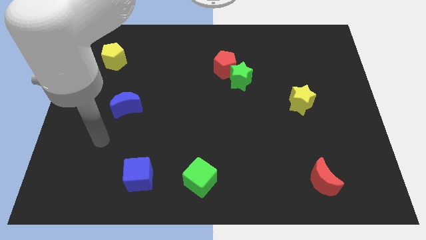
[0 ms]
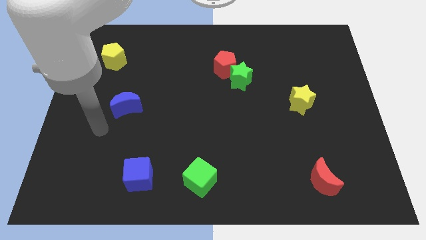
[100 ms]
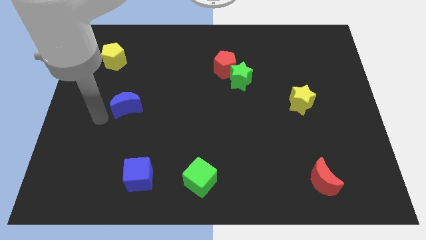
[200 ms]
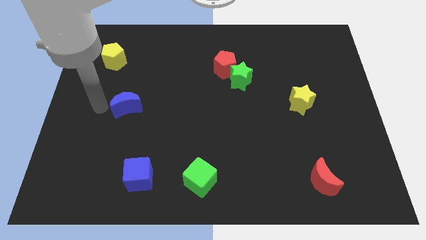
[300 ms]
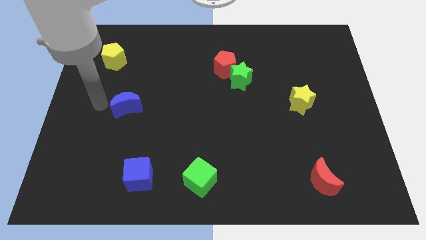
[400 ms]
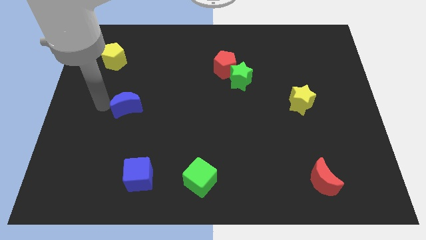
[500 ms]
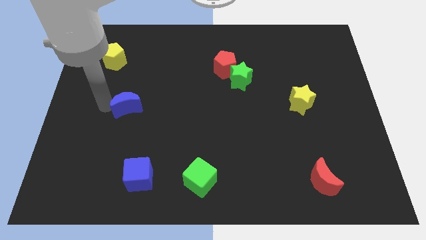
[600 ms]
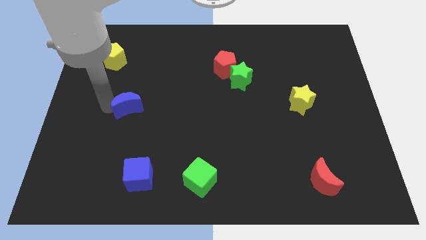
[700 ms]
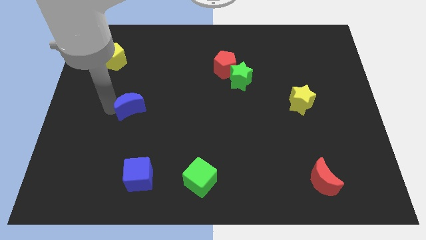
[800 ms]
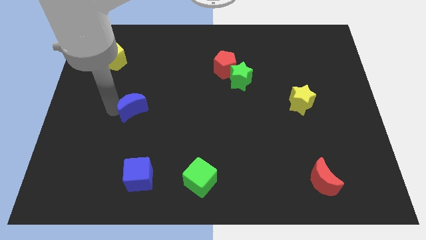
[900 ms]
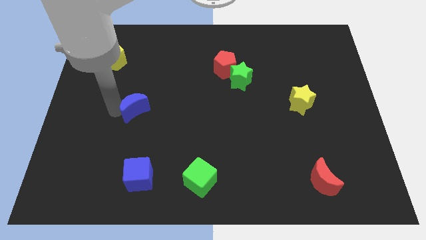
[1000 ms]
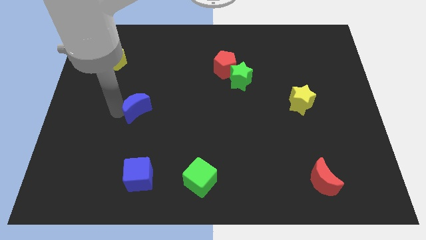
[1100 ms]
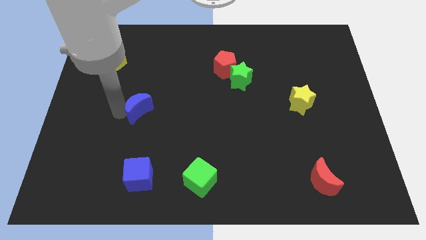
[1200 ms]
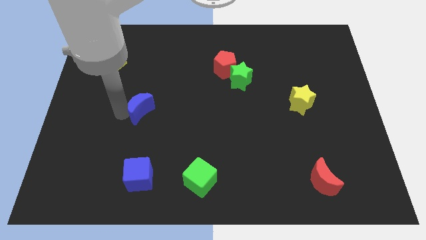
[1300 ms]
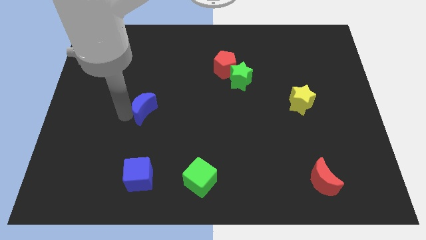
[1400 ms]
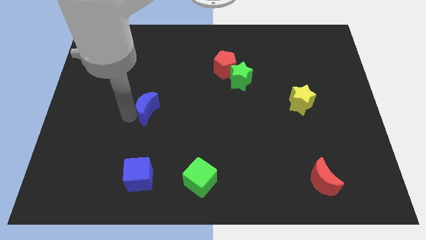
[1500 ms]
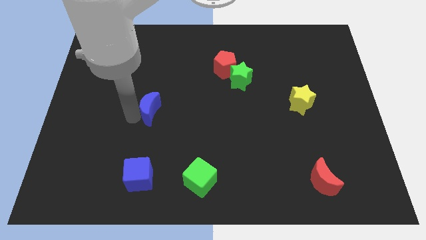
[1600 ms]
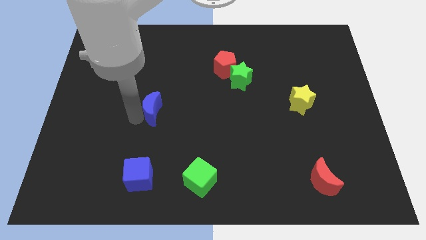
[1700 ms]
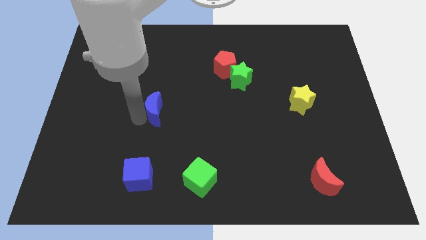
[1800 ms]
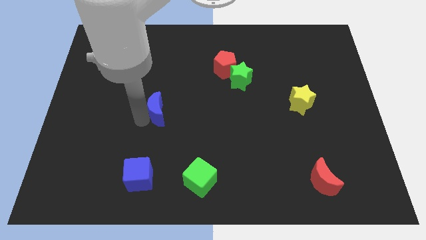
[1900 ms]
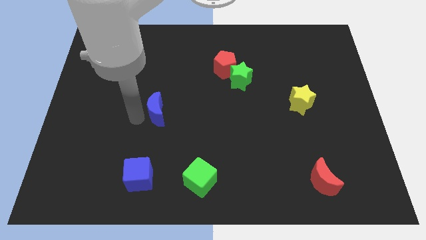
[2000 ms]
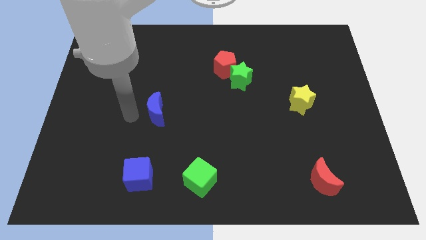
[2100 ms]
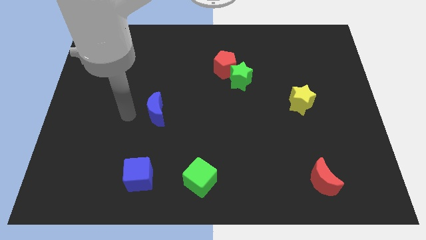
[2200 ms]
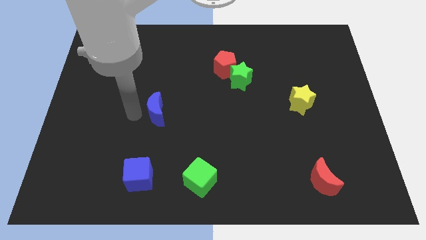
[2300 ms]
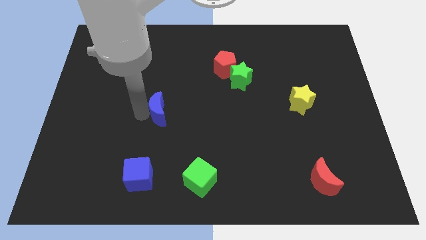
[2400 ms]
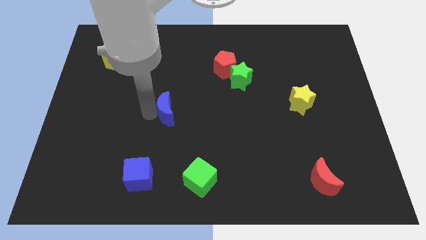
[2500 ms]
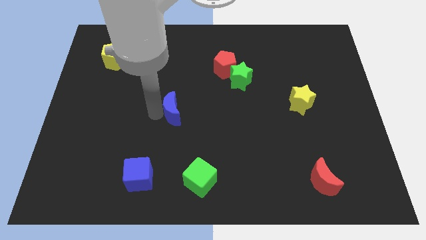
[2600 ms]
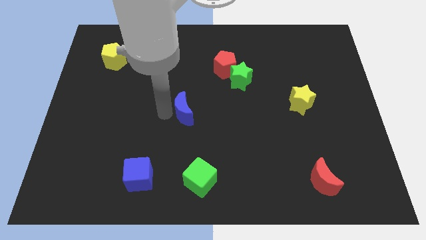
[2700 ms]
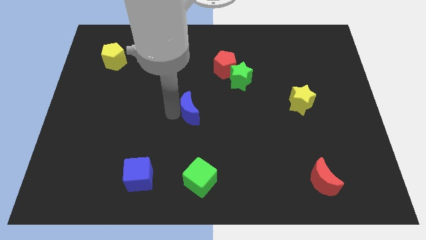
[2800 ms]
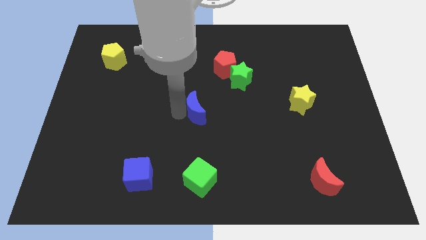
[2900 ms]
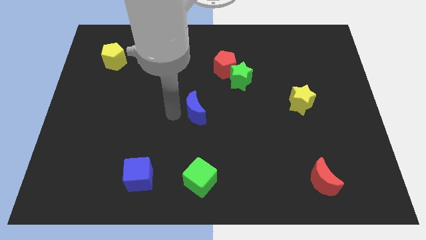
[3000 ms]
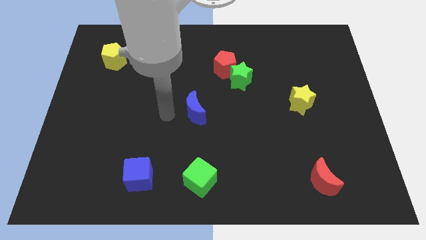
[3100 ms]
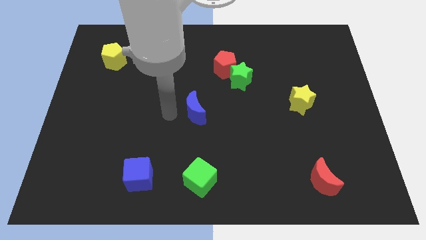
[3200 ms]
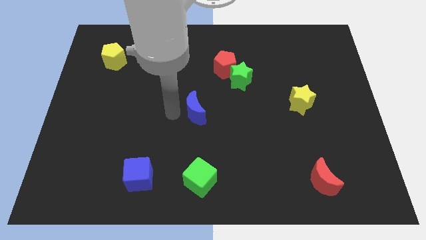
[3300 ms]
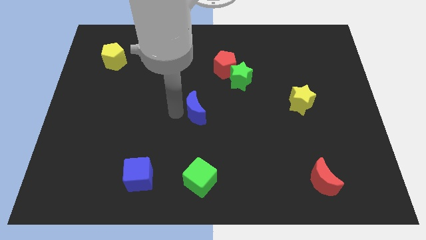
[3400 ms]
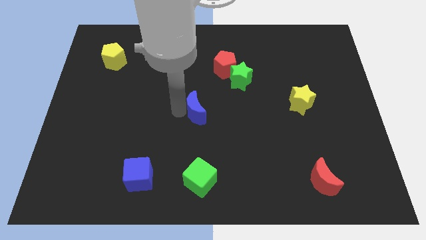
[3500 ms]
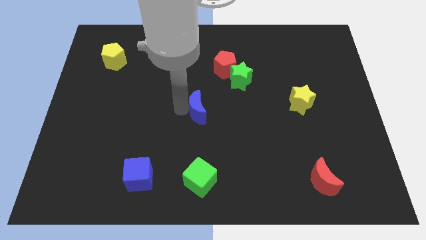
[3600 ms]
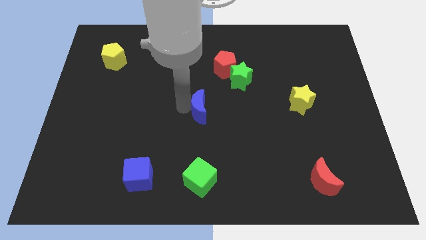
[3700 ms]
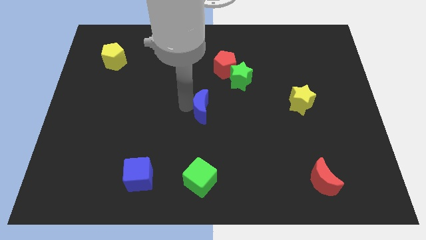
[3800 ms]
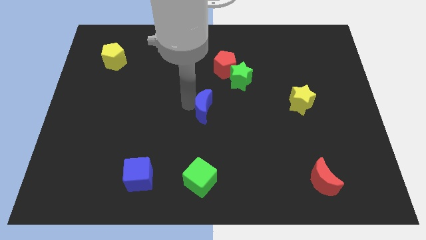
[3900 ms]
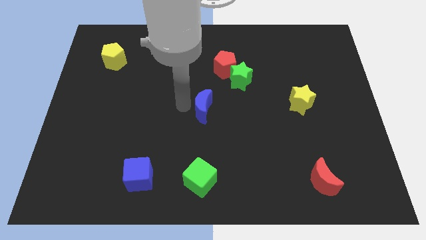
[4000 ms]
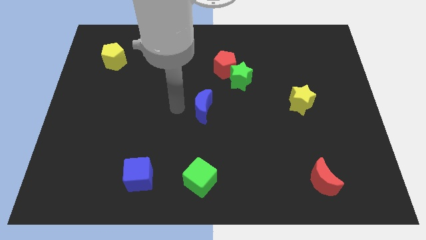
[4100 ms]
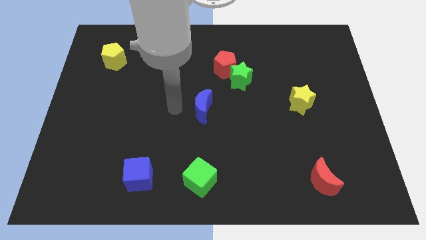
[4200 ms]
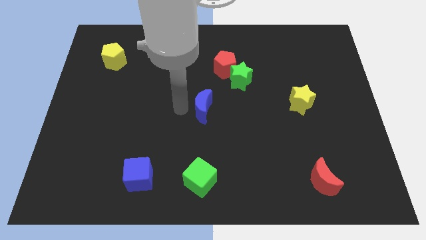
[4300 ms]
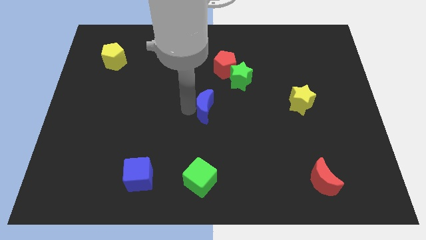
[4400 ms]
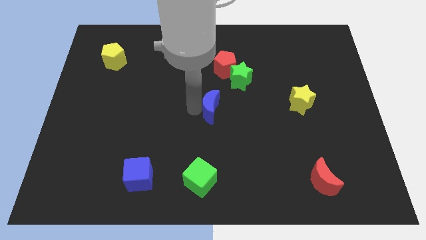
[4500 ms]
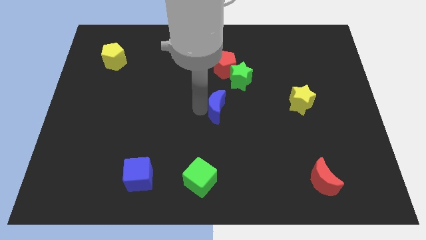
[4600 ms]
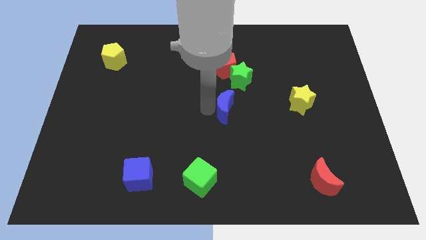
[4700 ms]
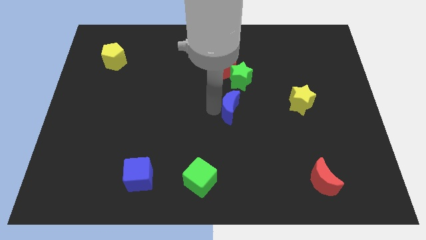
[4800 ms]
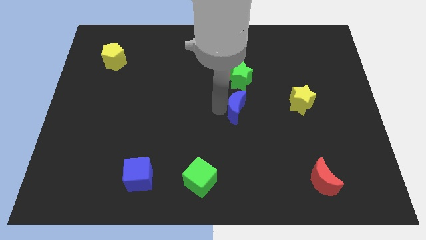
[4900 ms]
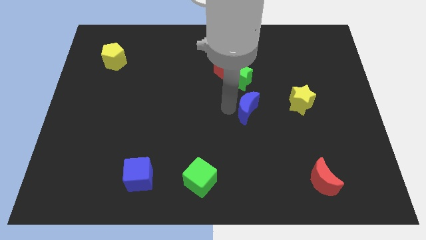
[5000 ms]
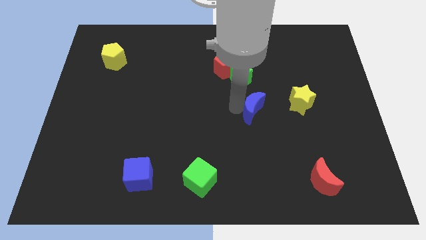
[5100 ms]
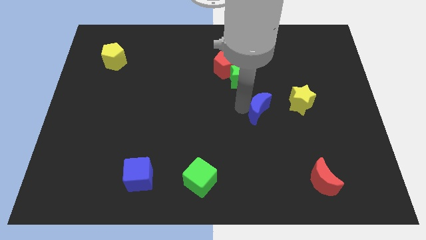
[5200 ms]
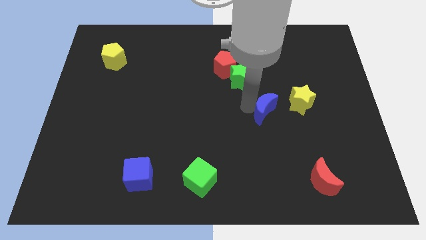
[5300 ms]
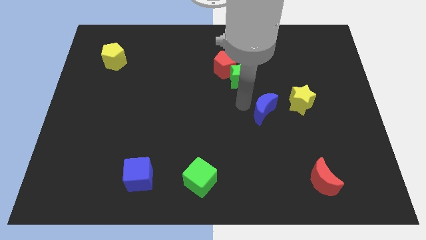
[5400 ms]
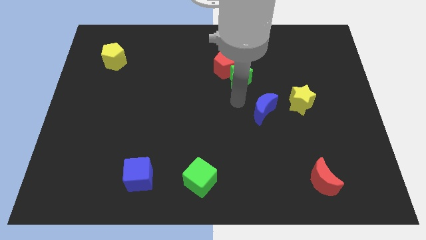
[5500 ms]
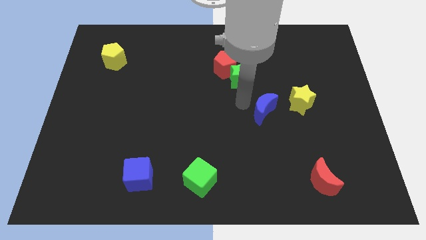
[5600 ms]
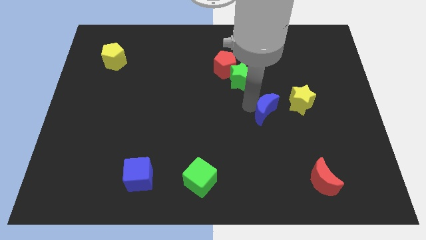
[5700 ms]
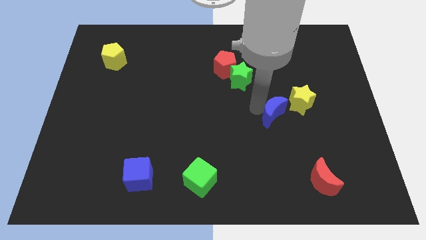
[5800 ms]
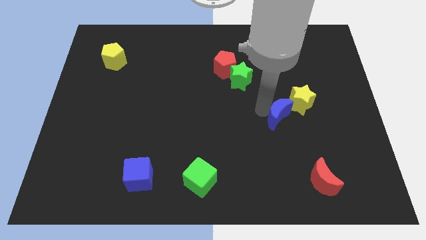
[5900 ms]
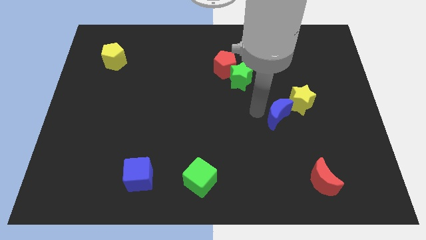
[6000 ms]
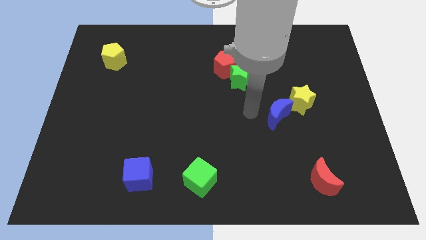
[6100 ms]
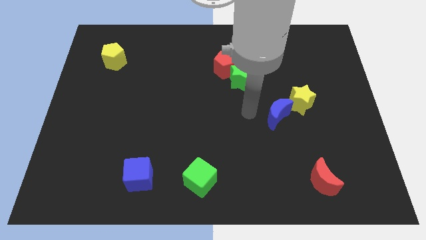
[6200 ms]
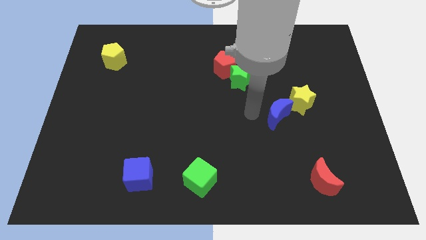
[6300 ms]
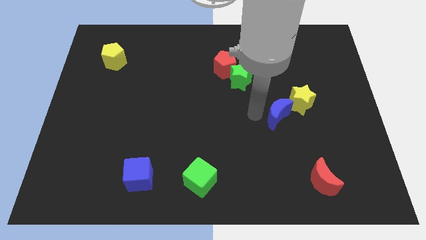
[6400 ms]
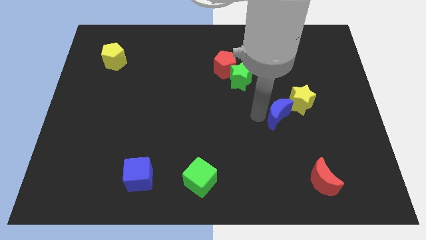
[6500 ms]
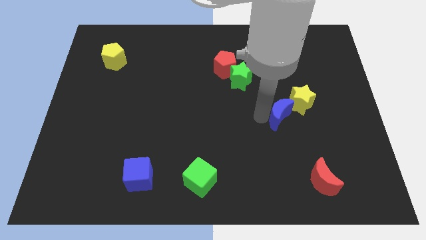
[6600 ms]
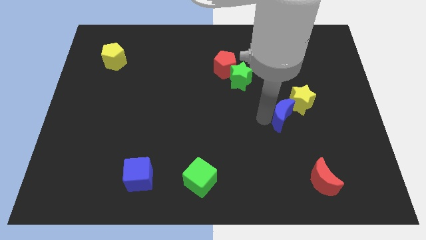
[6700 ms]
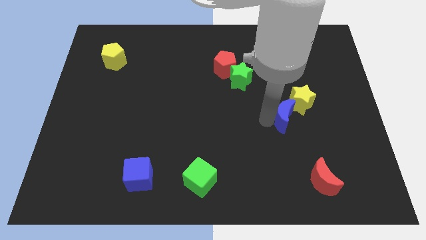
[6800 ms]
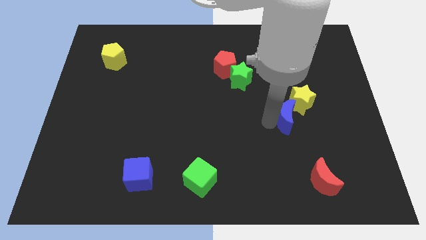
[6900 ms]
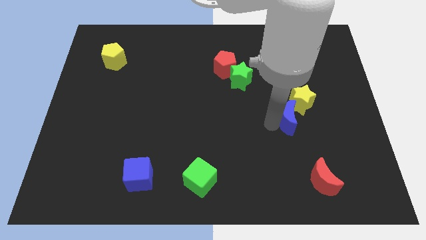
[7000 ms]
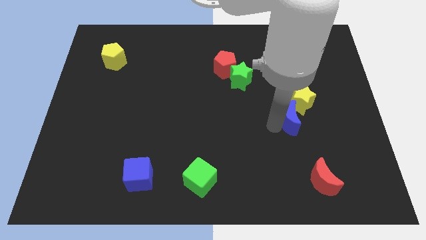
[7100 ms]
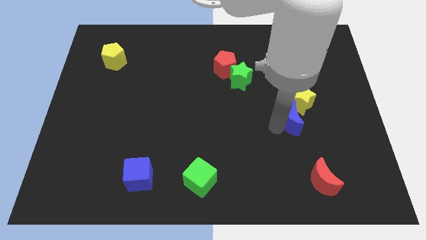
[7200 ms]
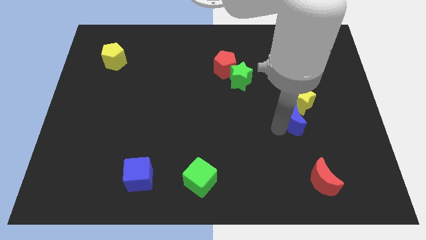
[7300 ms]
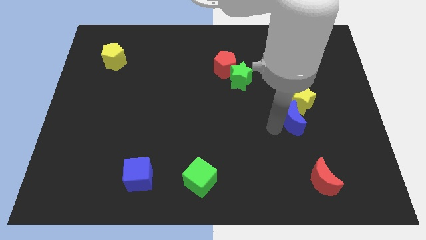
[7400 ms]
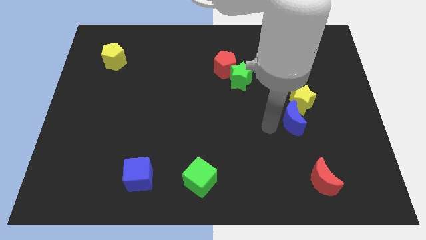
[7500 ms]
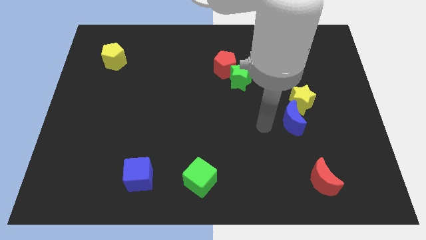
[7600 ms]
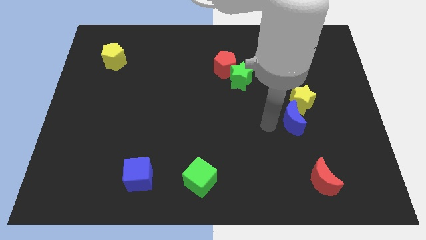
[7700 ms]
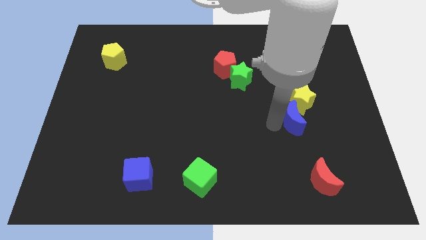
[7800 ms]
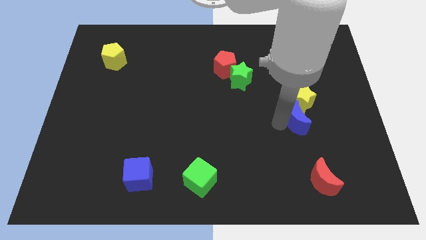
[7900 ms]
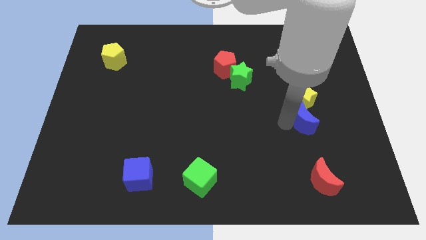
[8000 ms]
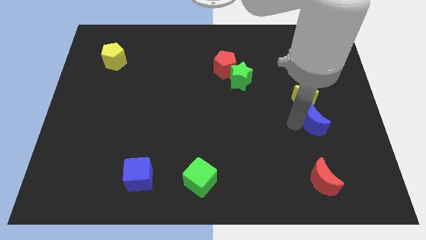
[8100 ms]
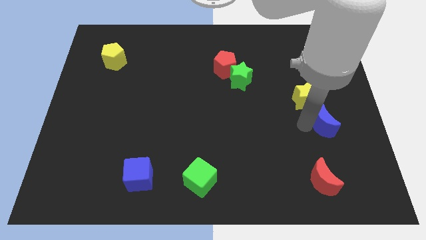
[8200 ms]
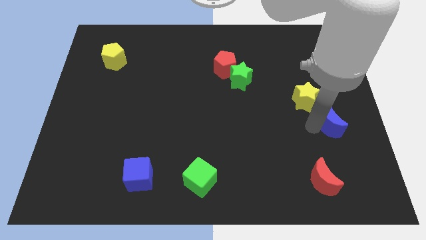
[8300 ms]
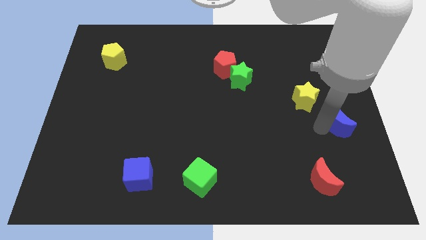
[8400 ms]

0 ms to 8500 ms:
slide the blue moon to the right side
